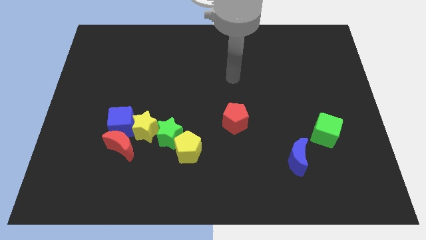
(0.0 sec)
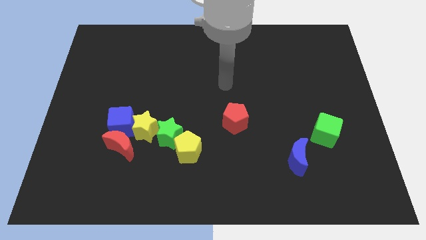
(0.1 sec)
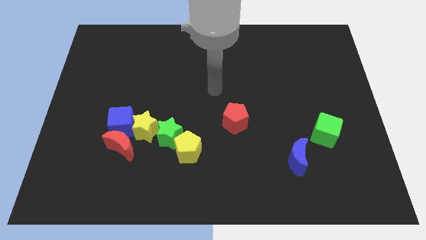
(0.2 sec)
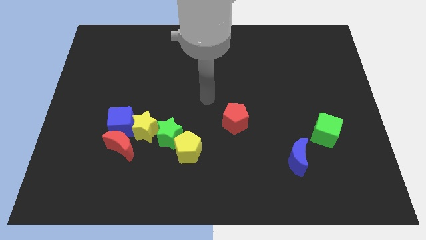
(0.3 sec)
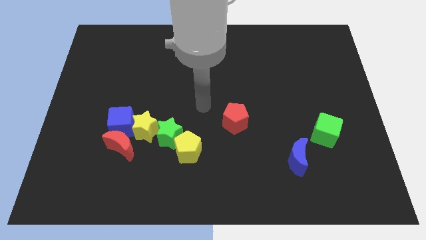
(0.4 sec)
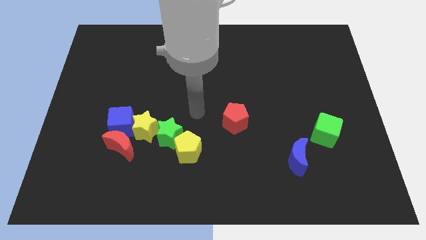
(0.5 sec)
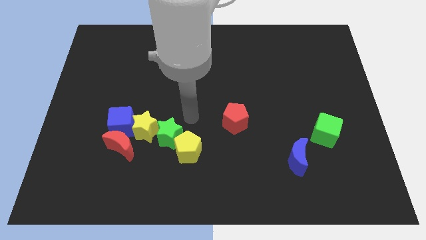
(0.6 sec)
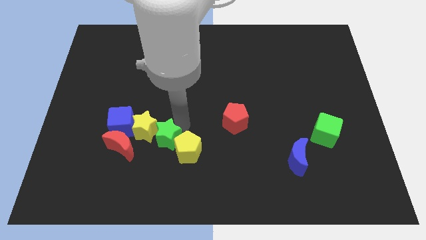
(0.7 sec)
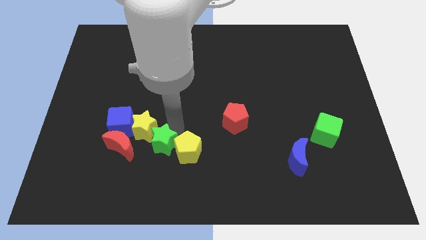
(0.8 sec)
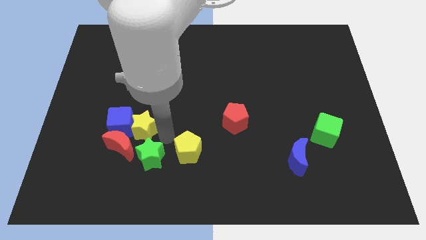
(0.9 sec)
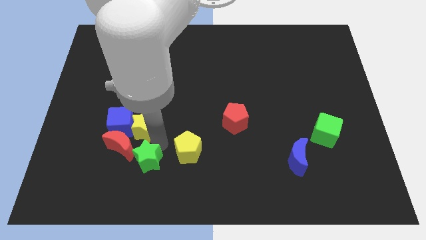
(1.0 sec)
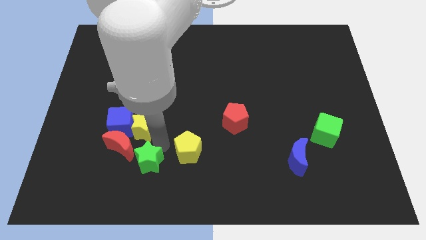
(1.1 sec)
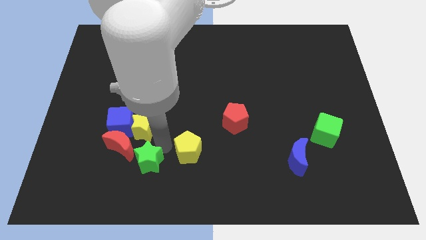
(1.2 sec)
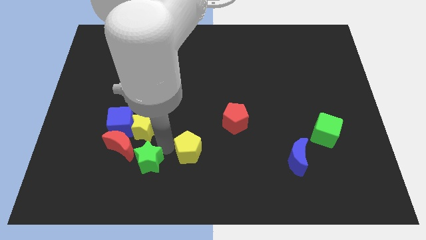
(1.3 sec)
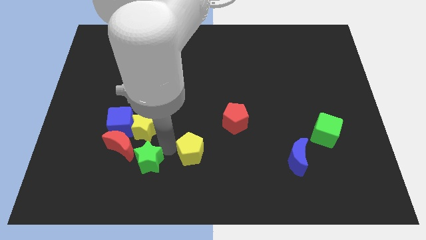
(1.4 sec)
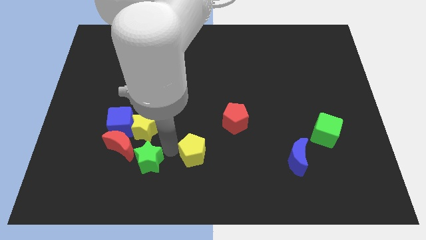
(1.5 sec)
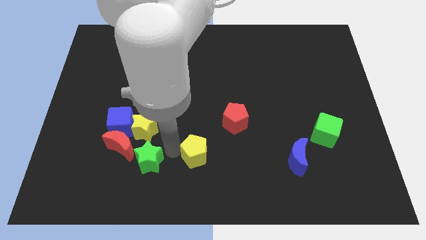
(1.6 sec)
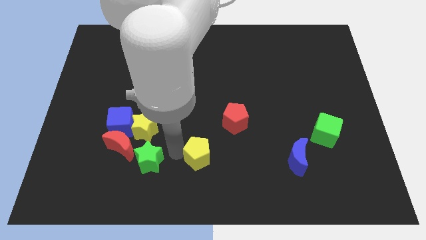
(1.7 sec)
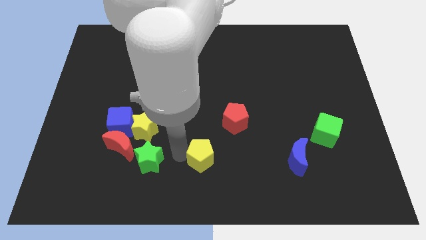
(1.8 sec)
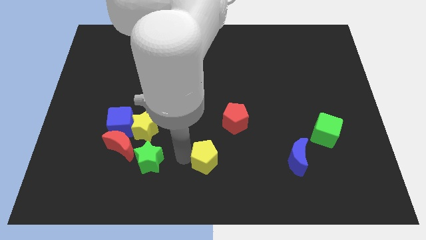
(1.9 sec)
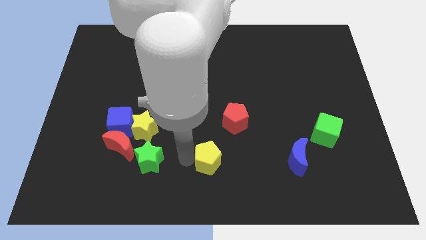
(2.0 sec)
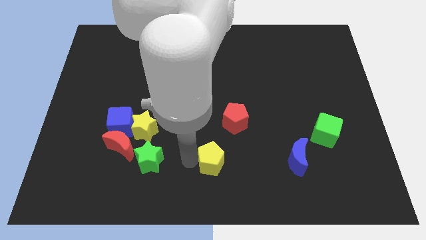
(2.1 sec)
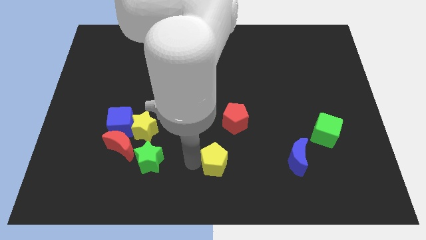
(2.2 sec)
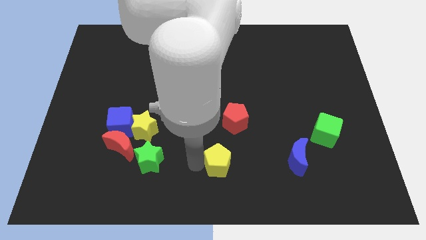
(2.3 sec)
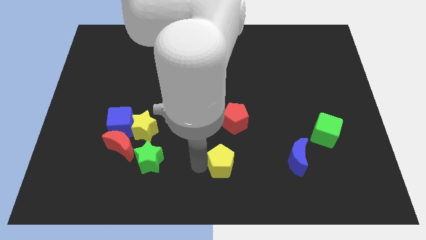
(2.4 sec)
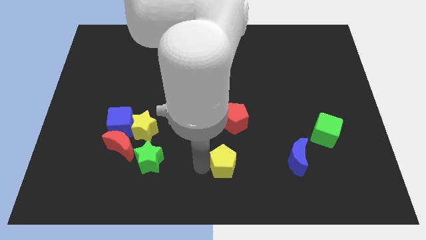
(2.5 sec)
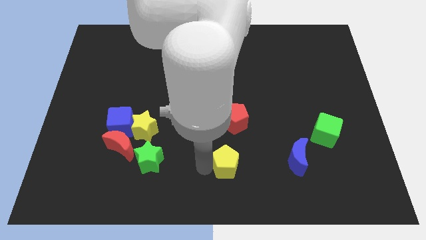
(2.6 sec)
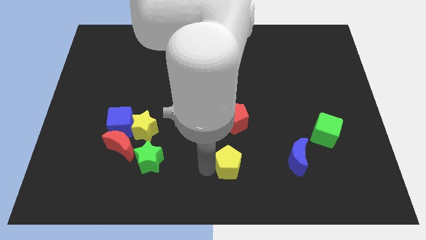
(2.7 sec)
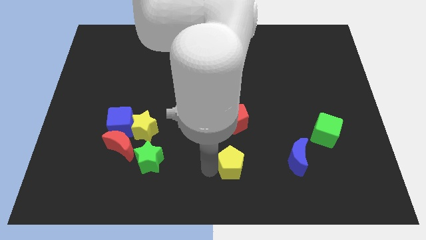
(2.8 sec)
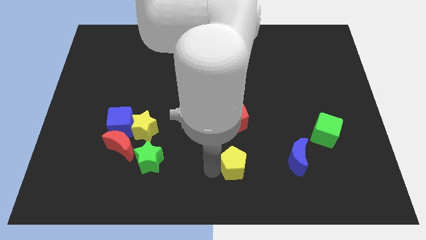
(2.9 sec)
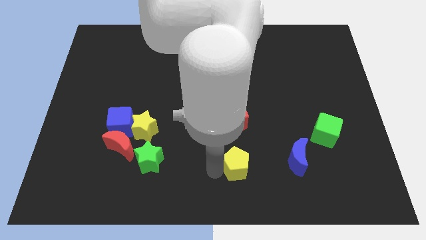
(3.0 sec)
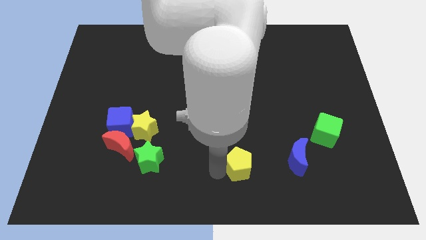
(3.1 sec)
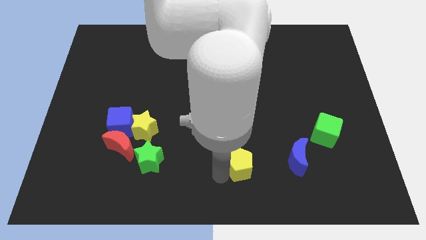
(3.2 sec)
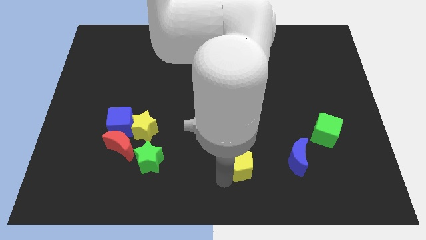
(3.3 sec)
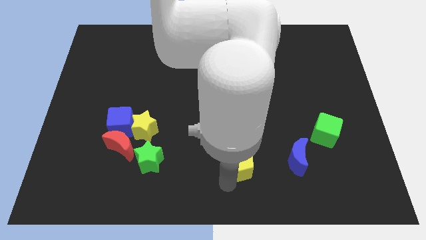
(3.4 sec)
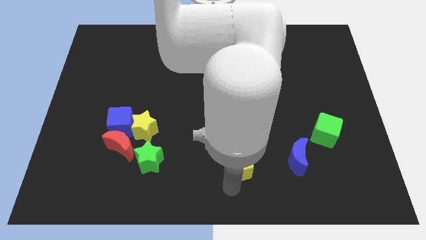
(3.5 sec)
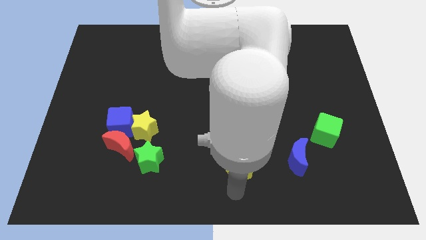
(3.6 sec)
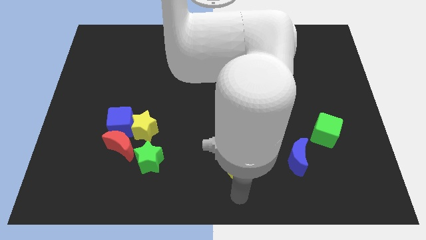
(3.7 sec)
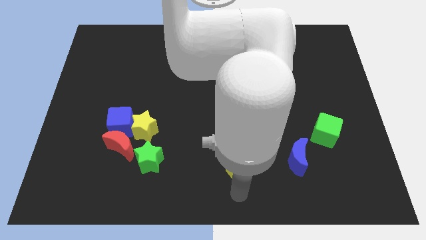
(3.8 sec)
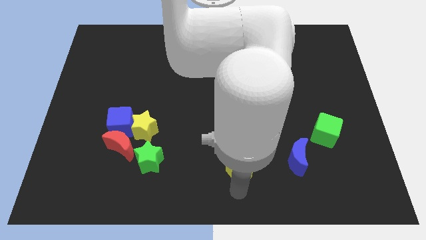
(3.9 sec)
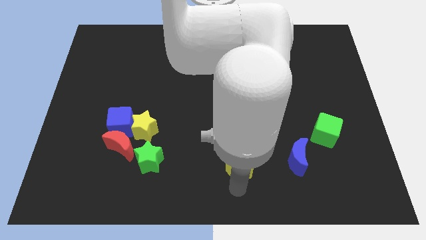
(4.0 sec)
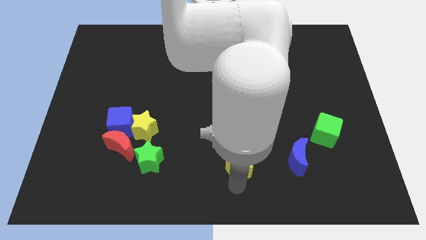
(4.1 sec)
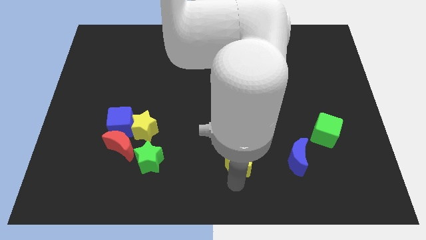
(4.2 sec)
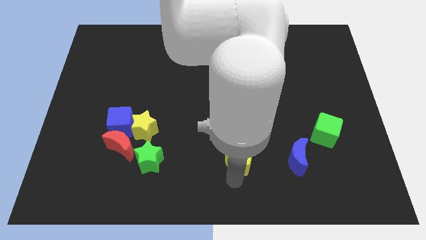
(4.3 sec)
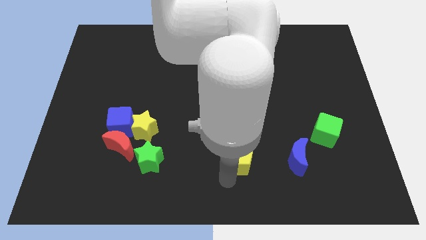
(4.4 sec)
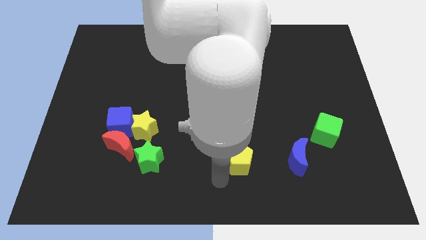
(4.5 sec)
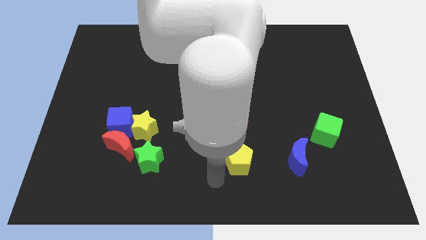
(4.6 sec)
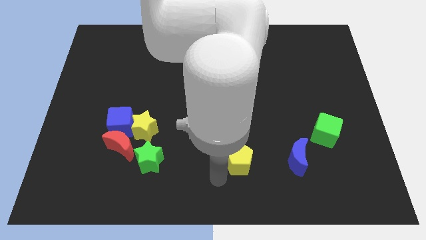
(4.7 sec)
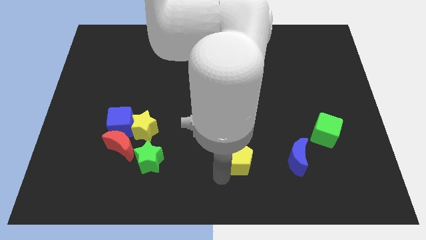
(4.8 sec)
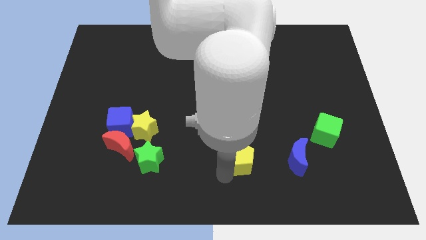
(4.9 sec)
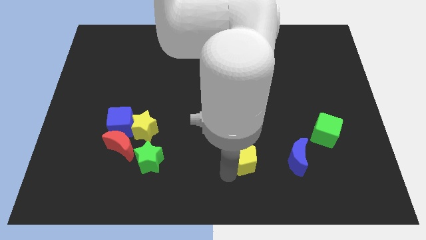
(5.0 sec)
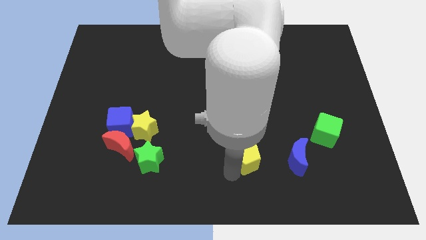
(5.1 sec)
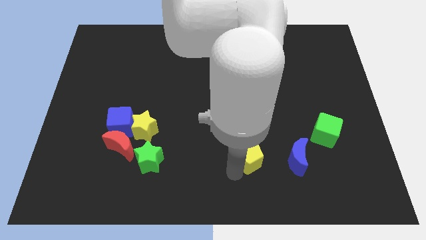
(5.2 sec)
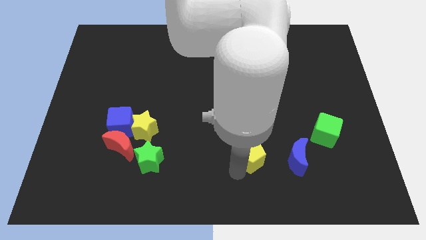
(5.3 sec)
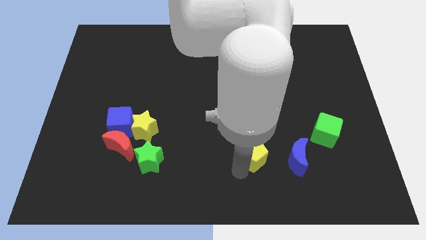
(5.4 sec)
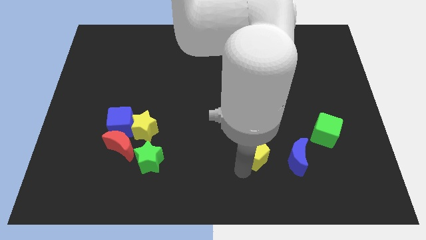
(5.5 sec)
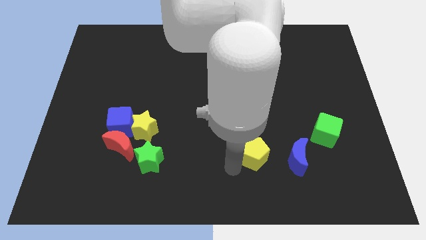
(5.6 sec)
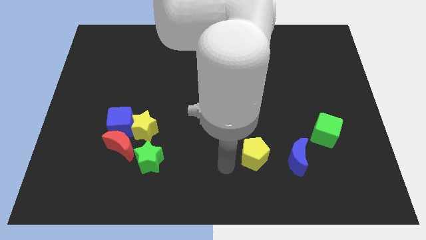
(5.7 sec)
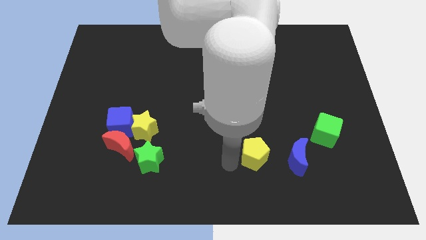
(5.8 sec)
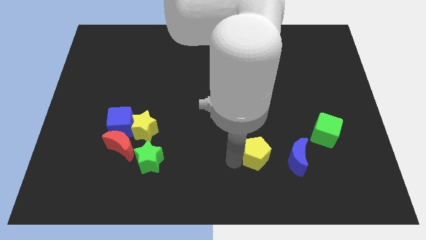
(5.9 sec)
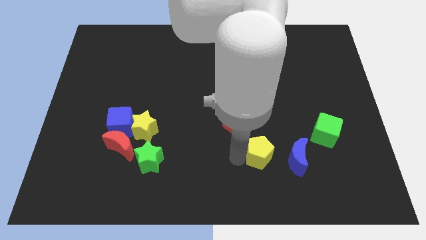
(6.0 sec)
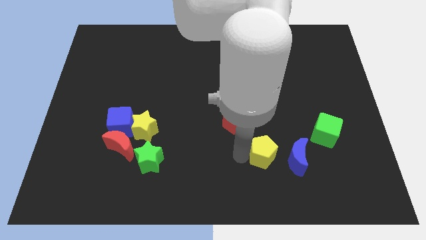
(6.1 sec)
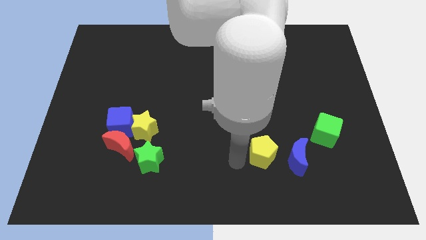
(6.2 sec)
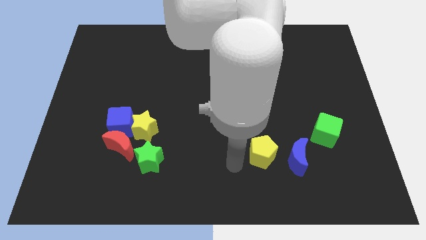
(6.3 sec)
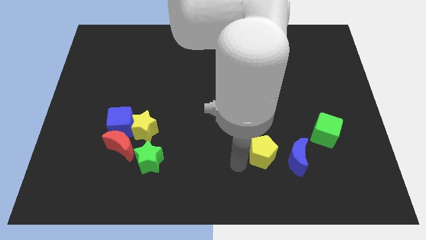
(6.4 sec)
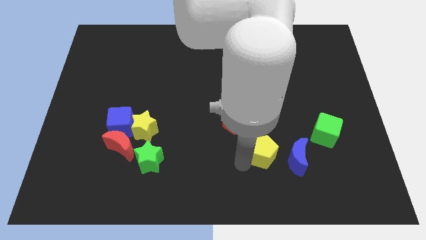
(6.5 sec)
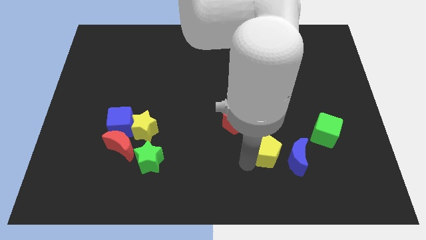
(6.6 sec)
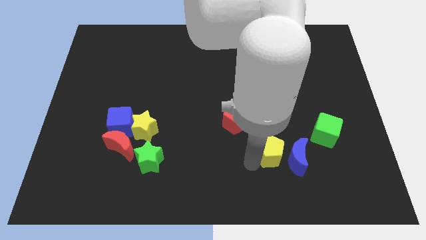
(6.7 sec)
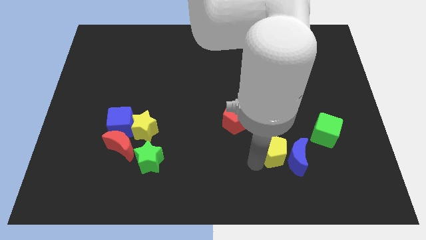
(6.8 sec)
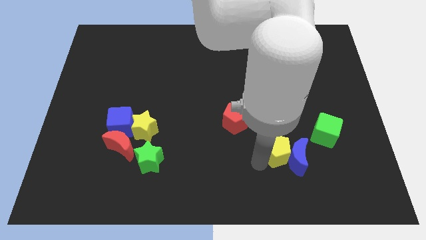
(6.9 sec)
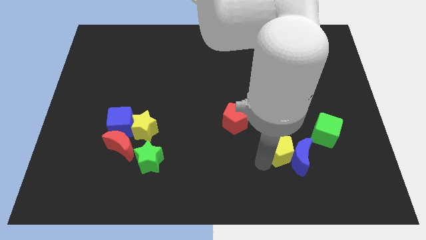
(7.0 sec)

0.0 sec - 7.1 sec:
push the yellow pentagon right

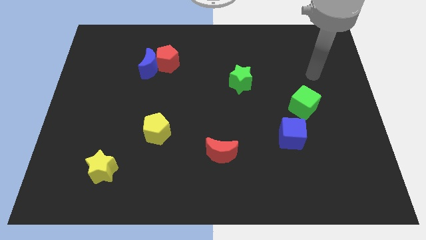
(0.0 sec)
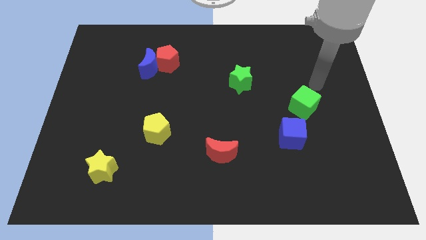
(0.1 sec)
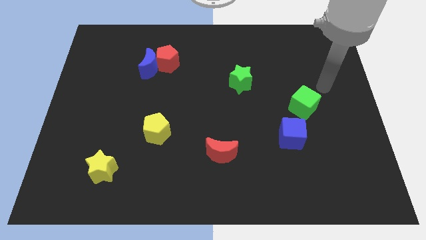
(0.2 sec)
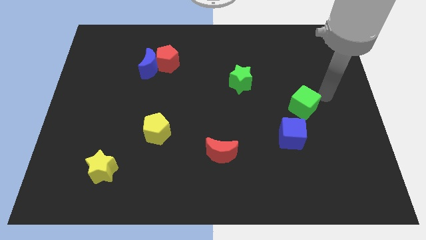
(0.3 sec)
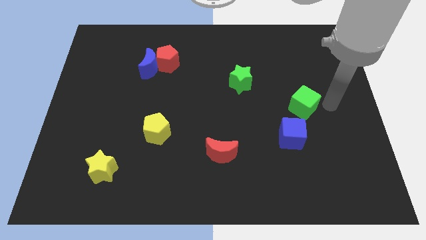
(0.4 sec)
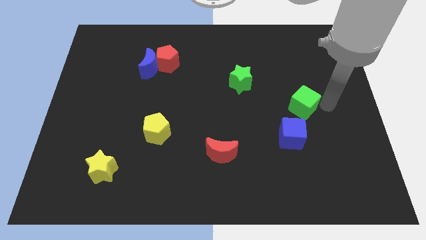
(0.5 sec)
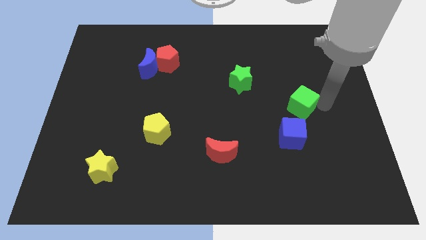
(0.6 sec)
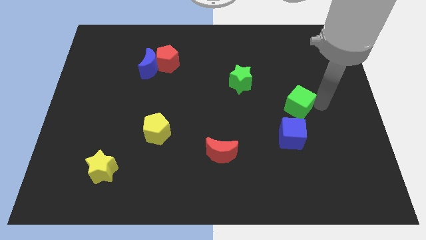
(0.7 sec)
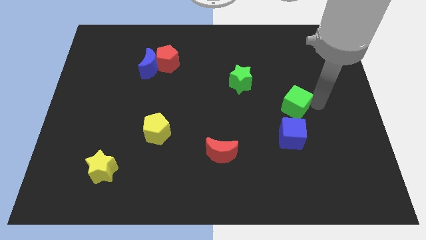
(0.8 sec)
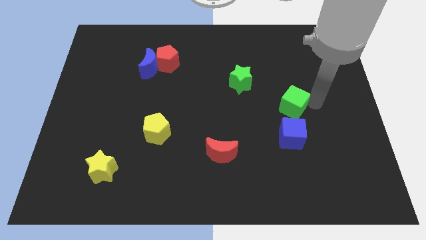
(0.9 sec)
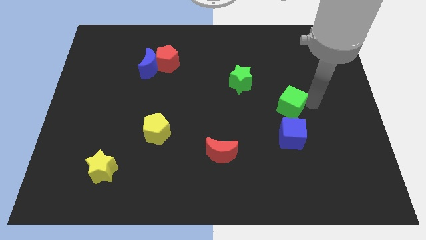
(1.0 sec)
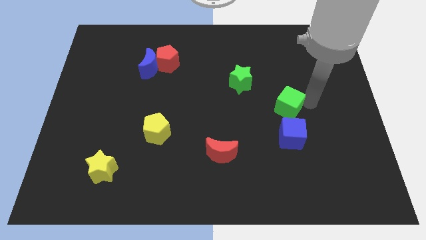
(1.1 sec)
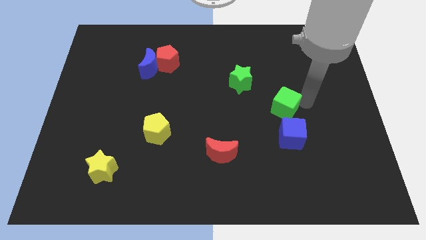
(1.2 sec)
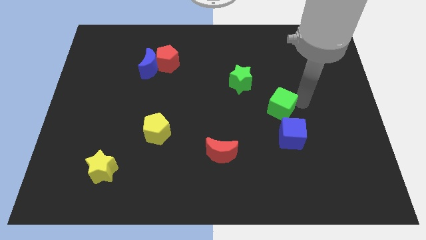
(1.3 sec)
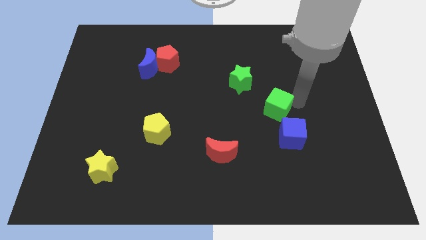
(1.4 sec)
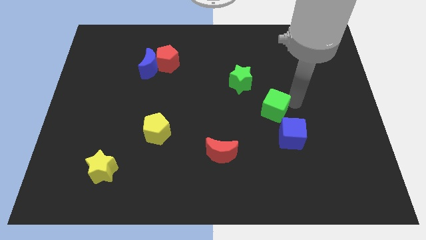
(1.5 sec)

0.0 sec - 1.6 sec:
slide the green cube a little bit to the left
